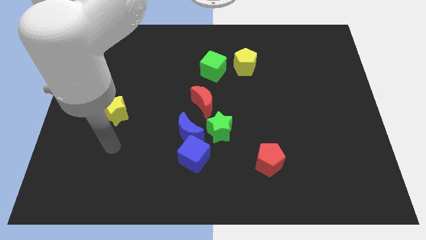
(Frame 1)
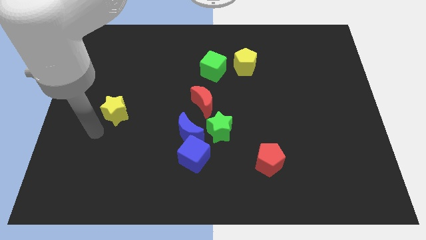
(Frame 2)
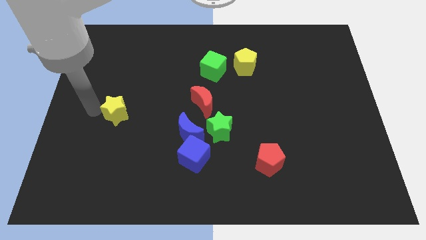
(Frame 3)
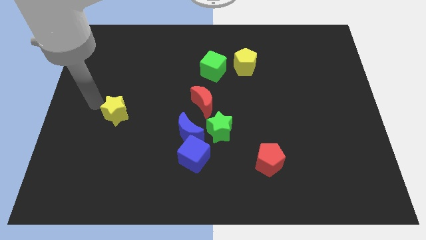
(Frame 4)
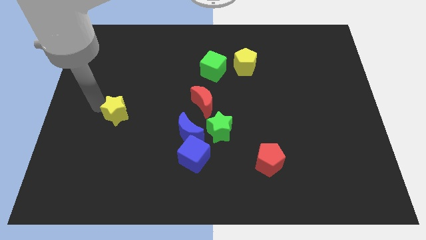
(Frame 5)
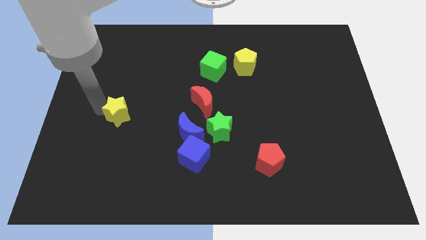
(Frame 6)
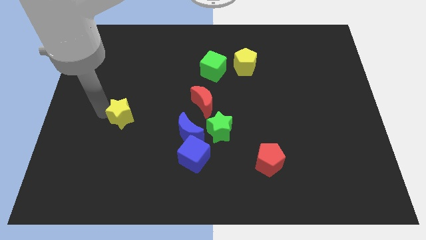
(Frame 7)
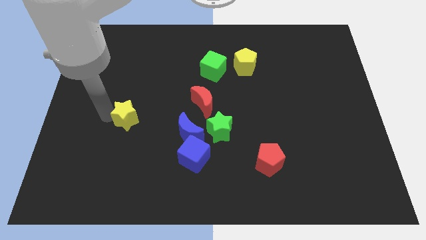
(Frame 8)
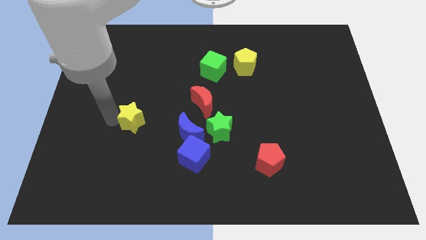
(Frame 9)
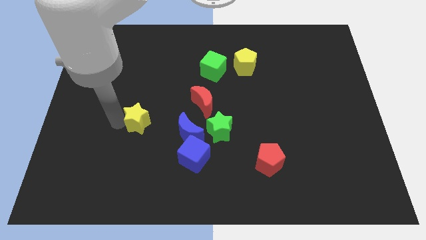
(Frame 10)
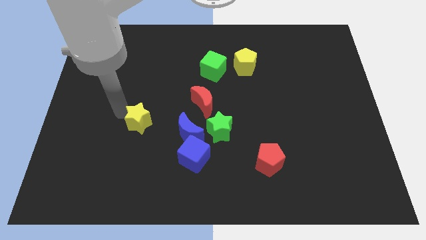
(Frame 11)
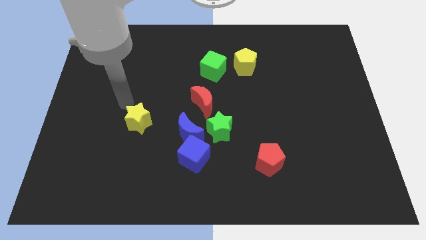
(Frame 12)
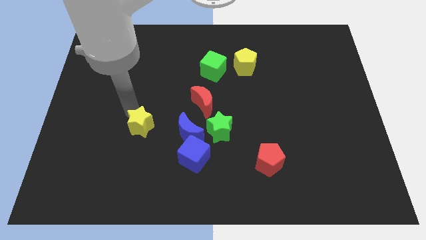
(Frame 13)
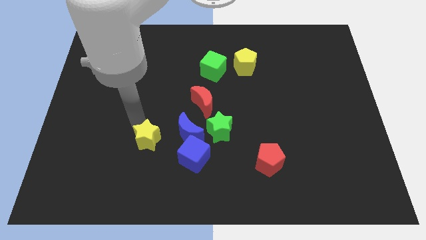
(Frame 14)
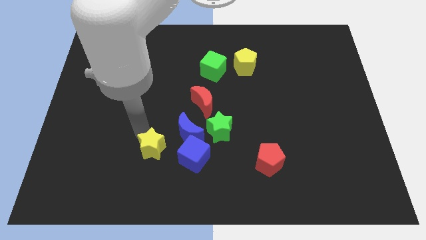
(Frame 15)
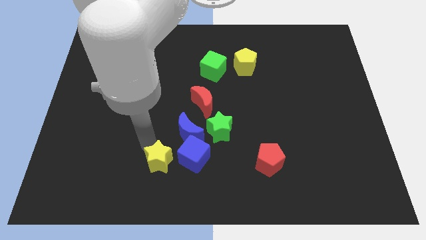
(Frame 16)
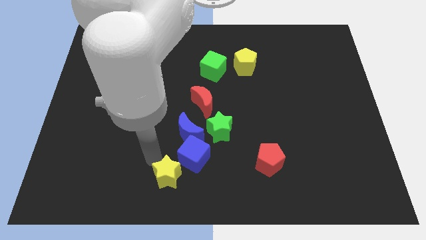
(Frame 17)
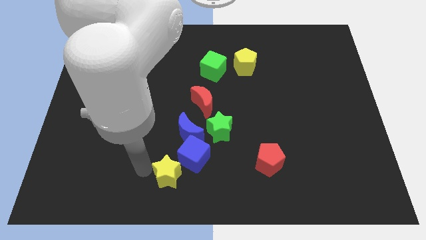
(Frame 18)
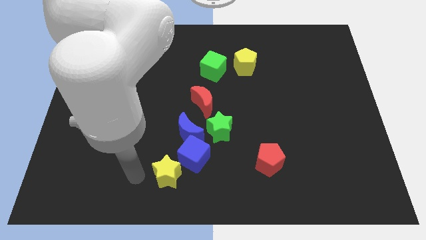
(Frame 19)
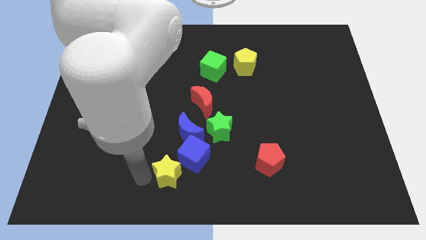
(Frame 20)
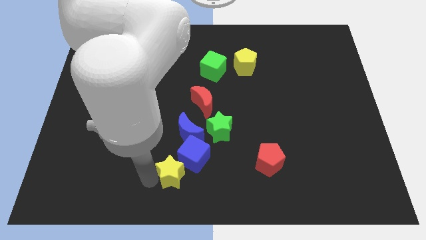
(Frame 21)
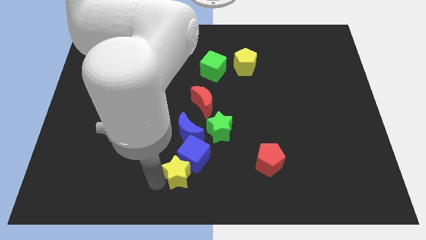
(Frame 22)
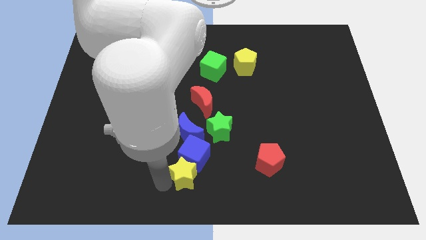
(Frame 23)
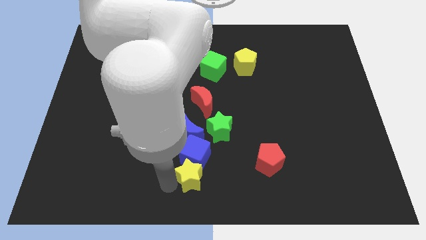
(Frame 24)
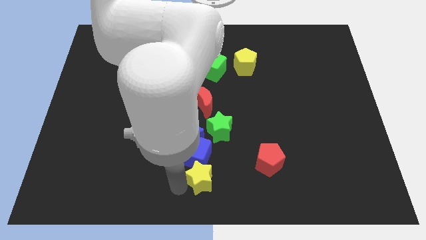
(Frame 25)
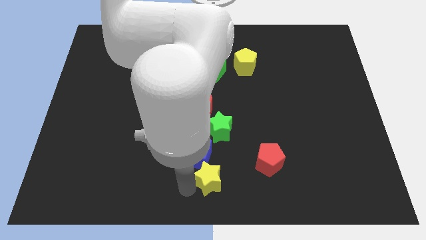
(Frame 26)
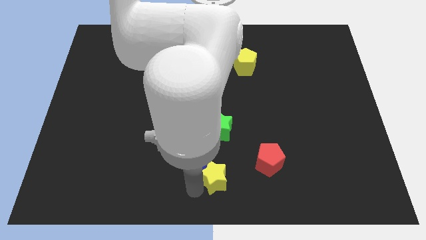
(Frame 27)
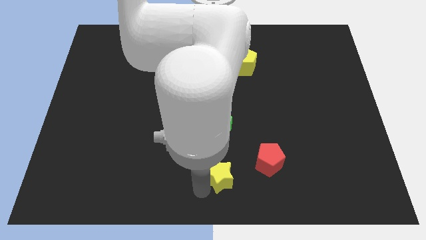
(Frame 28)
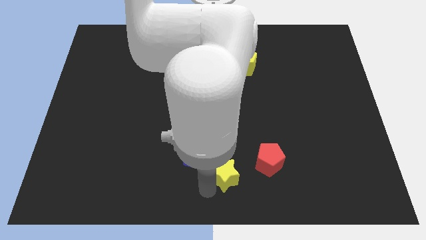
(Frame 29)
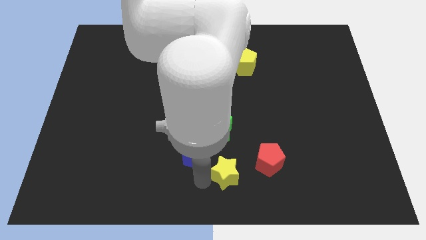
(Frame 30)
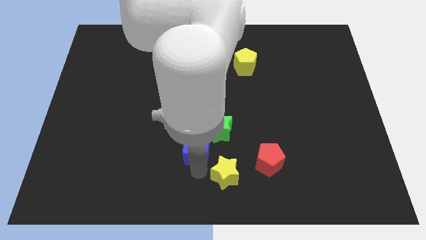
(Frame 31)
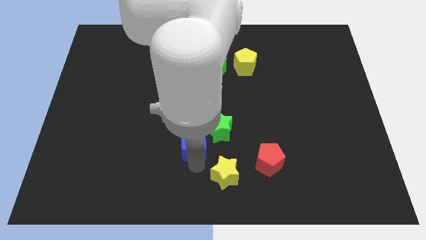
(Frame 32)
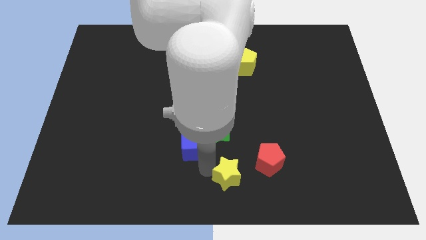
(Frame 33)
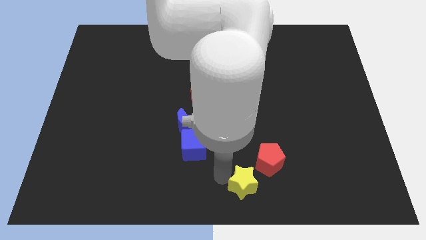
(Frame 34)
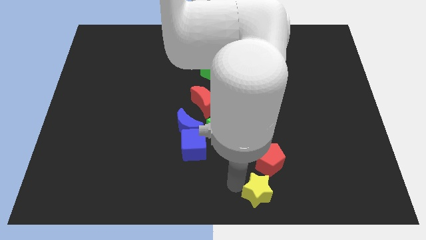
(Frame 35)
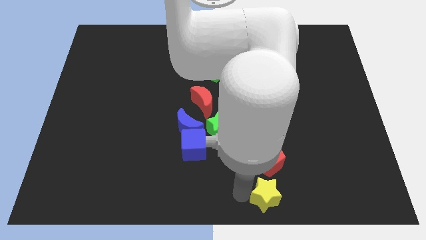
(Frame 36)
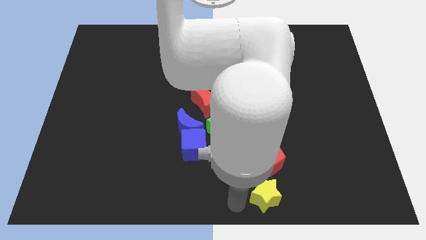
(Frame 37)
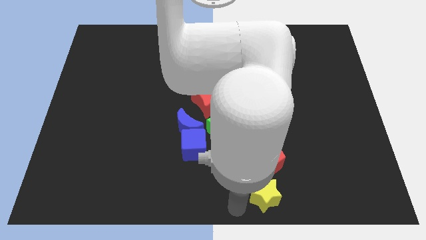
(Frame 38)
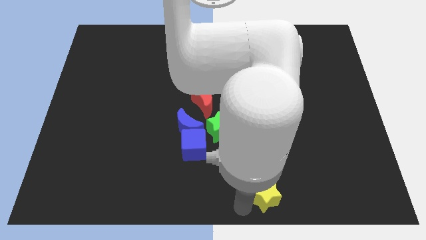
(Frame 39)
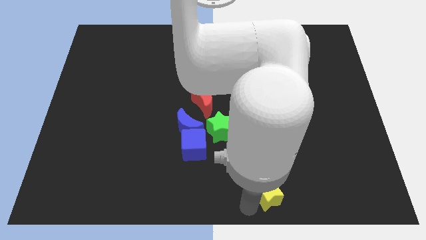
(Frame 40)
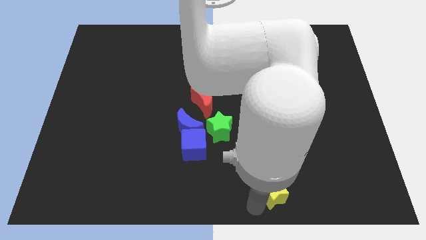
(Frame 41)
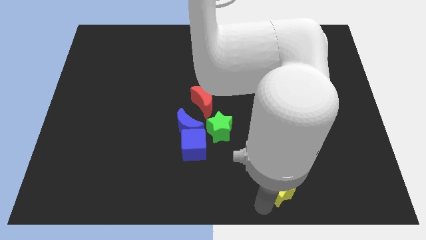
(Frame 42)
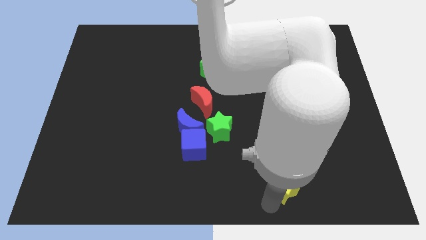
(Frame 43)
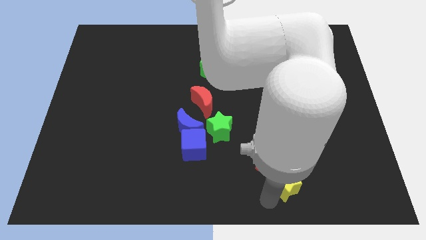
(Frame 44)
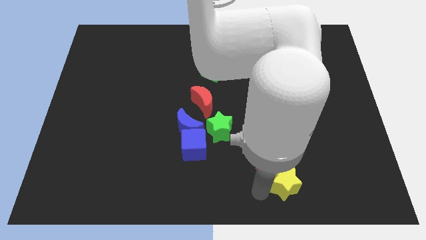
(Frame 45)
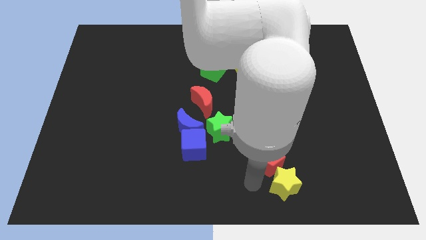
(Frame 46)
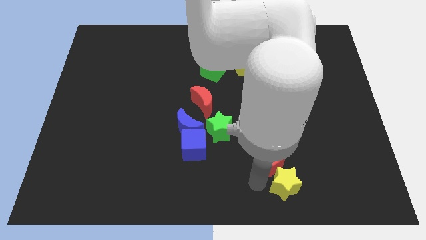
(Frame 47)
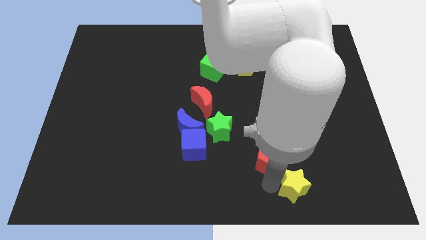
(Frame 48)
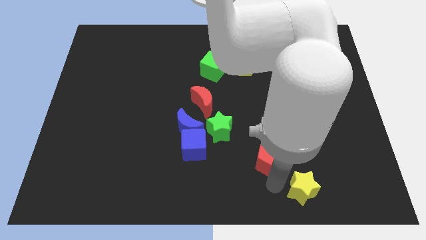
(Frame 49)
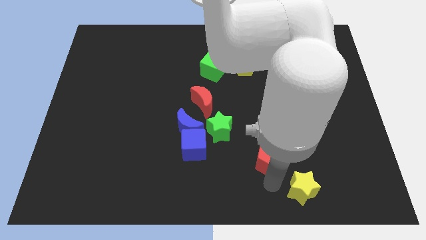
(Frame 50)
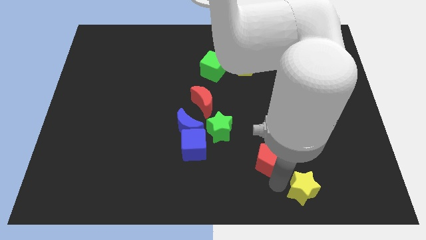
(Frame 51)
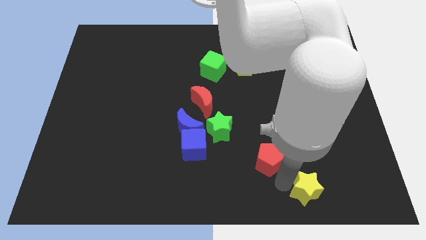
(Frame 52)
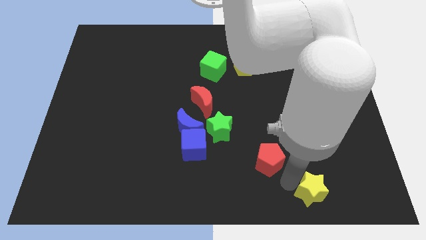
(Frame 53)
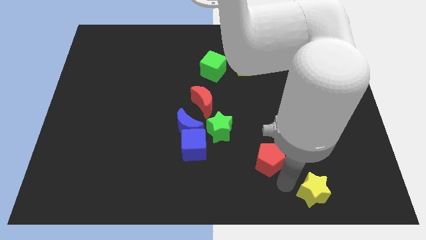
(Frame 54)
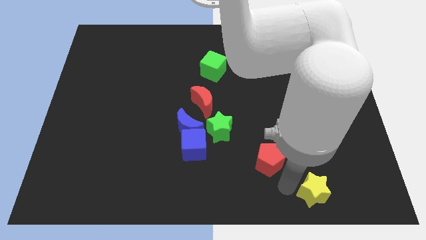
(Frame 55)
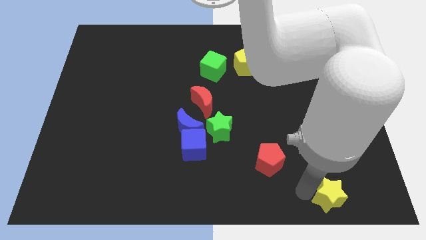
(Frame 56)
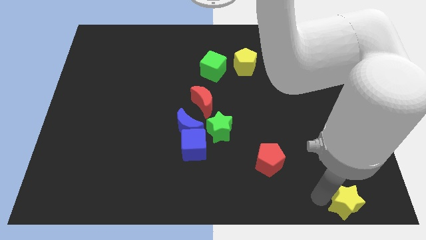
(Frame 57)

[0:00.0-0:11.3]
move the yellow star to the bottom right of the board

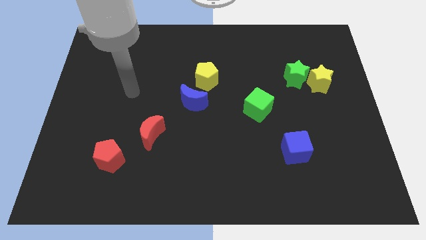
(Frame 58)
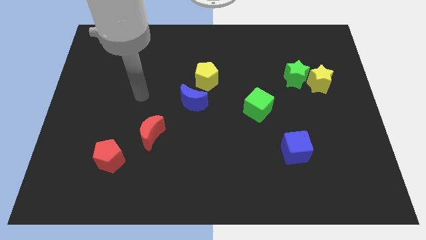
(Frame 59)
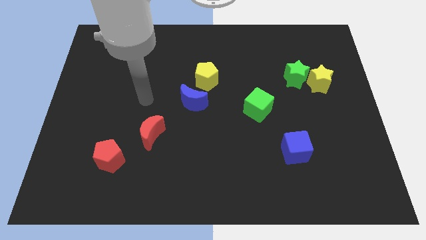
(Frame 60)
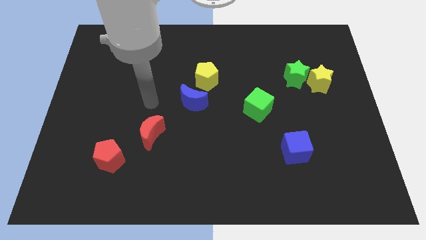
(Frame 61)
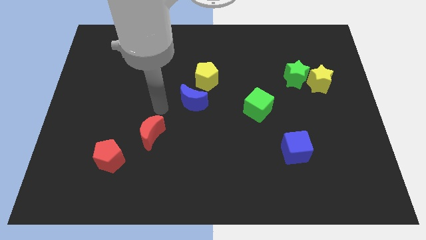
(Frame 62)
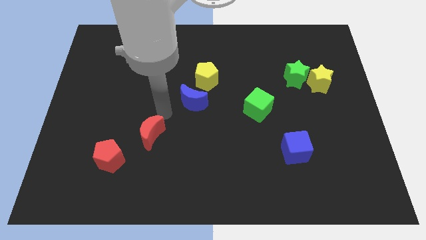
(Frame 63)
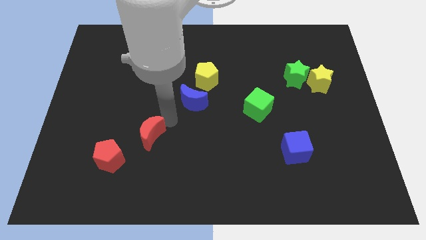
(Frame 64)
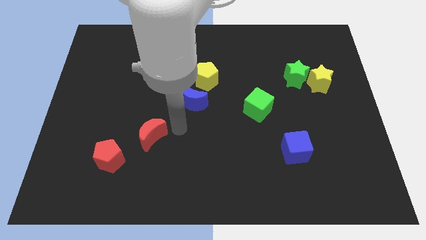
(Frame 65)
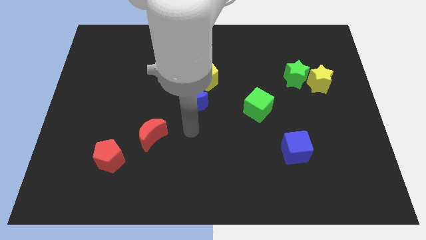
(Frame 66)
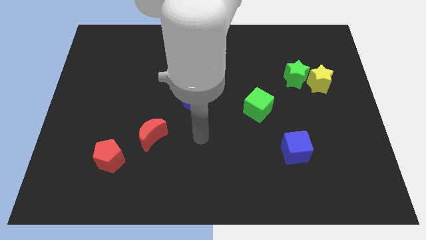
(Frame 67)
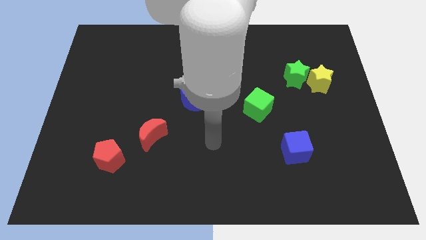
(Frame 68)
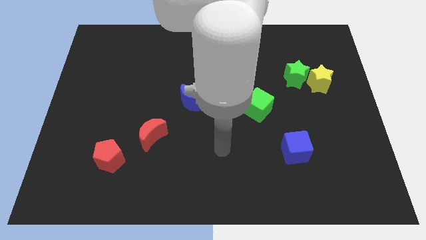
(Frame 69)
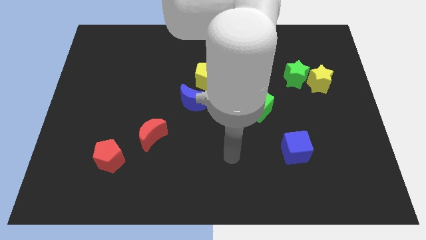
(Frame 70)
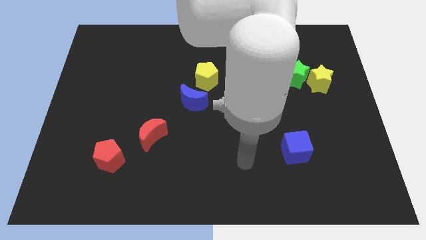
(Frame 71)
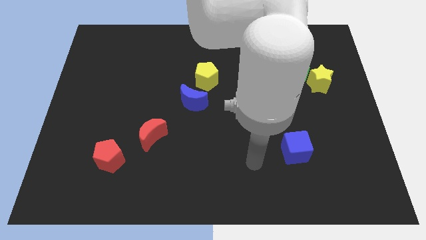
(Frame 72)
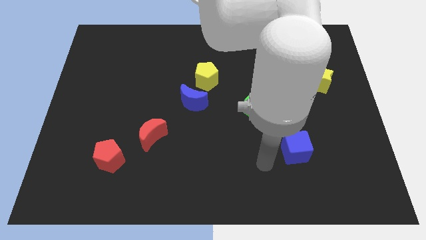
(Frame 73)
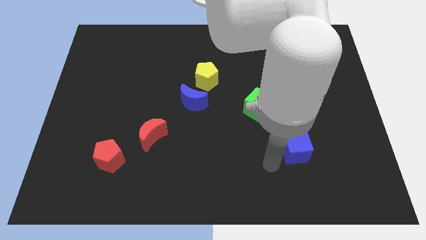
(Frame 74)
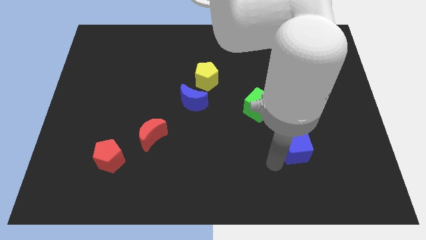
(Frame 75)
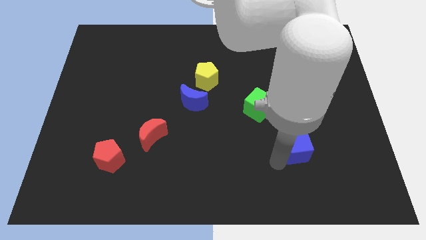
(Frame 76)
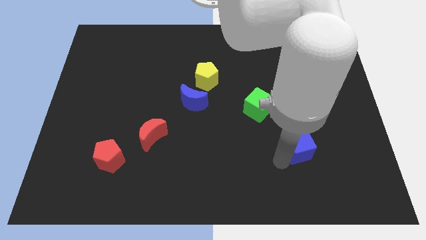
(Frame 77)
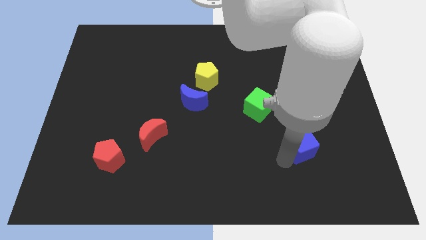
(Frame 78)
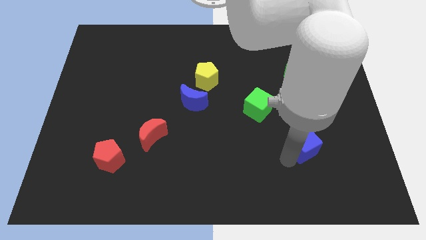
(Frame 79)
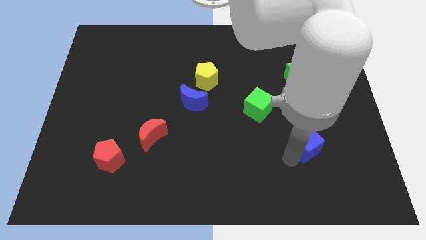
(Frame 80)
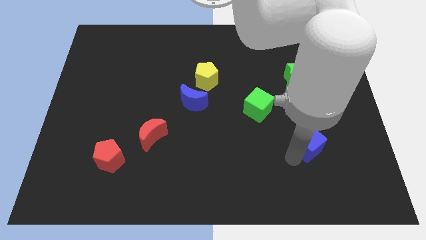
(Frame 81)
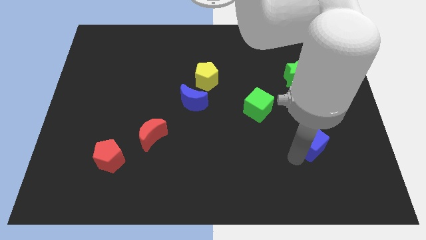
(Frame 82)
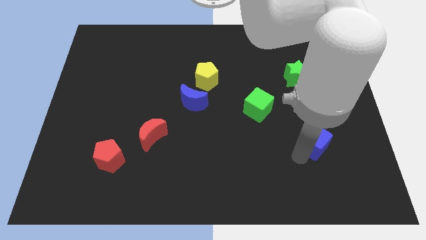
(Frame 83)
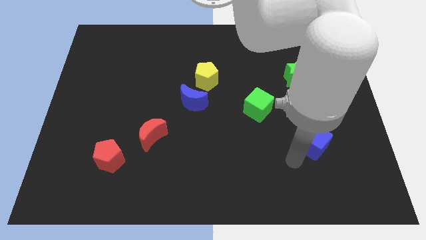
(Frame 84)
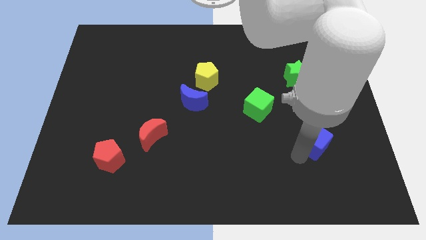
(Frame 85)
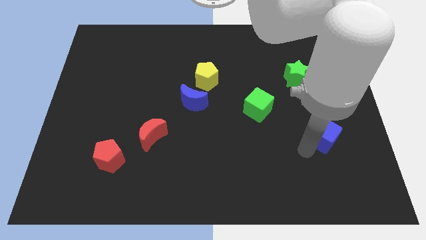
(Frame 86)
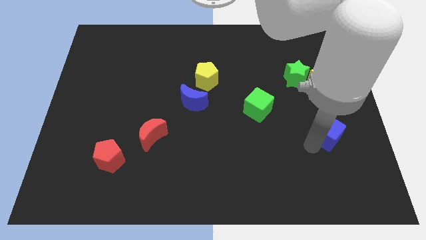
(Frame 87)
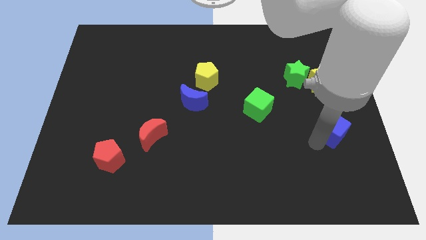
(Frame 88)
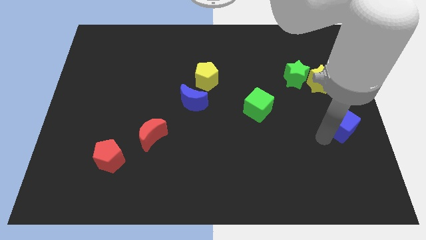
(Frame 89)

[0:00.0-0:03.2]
move the blue cube to the right side of the board
